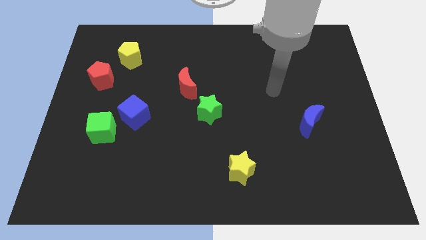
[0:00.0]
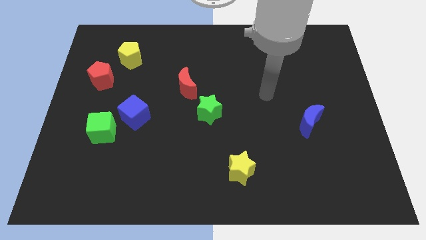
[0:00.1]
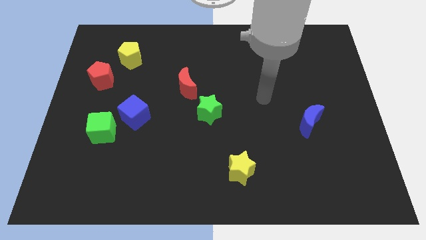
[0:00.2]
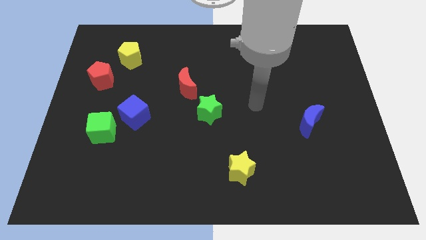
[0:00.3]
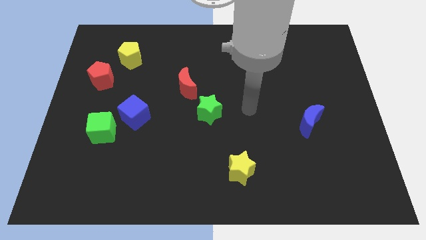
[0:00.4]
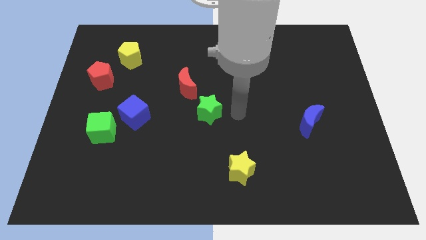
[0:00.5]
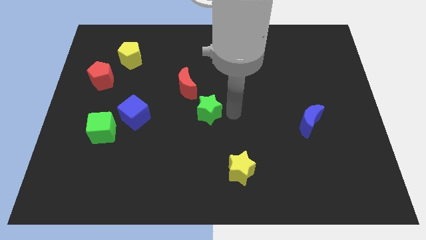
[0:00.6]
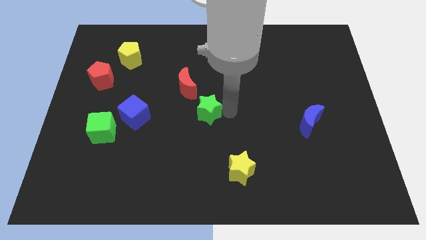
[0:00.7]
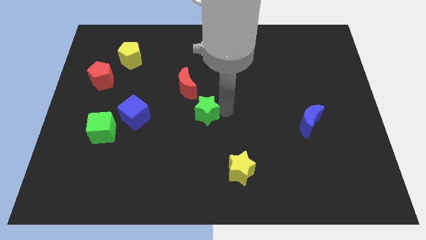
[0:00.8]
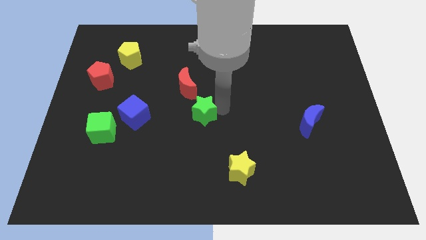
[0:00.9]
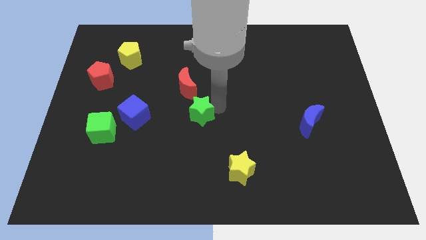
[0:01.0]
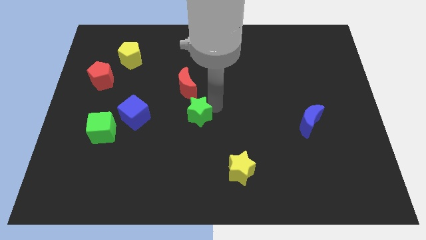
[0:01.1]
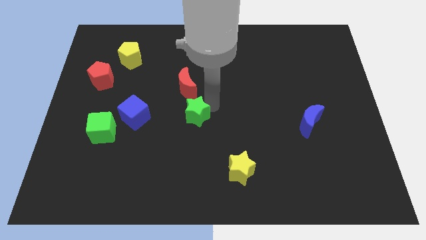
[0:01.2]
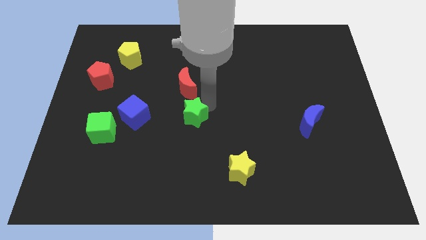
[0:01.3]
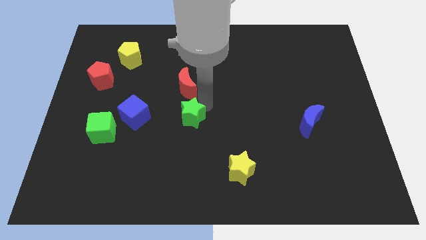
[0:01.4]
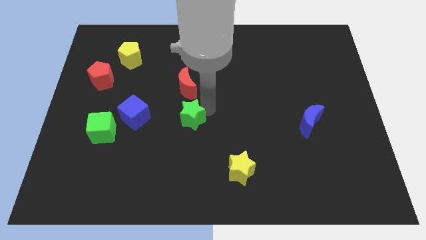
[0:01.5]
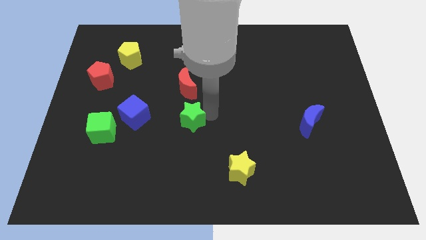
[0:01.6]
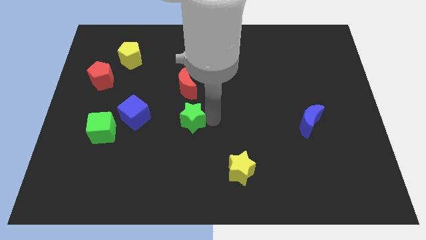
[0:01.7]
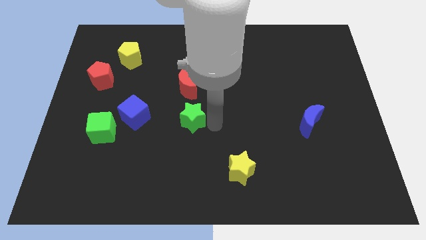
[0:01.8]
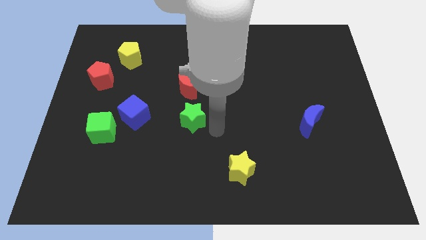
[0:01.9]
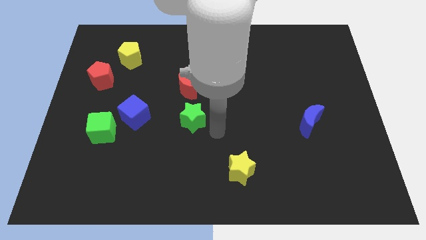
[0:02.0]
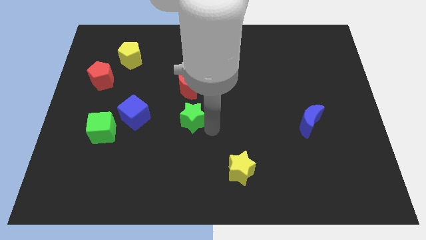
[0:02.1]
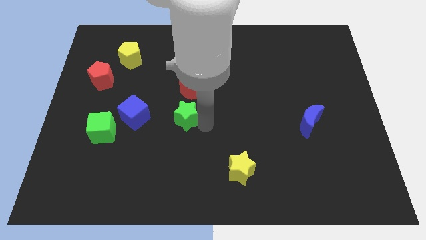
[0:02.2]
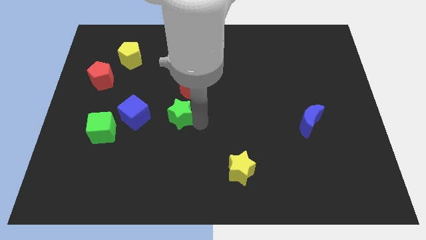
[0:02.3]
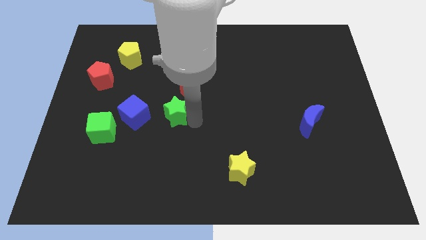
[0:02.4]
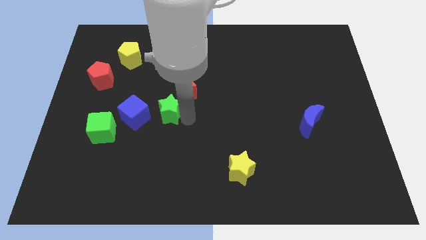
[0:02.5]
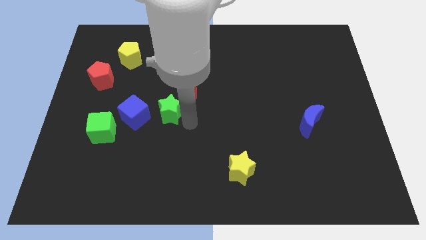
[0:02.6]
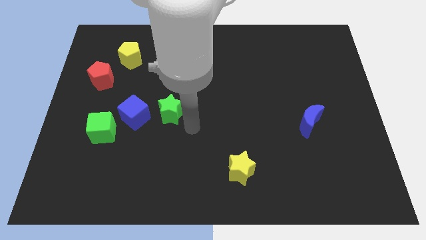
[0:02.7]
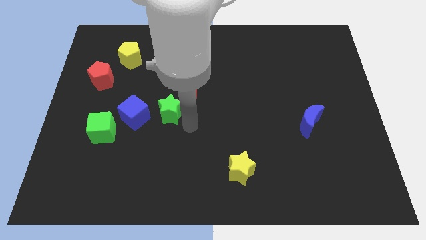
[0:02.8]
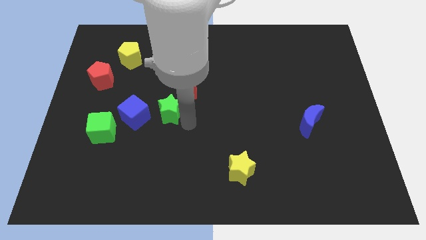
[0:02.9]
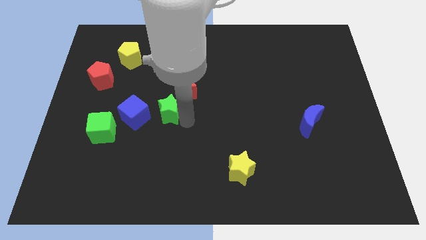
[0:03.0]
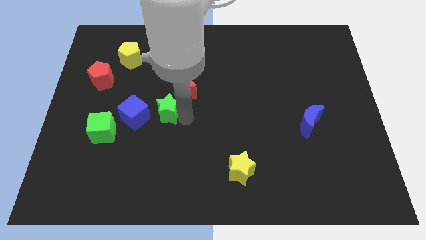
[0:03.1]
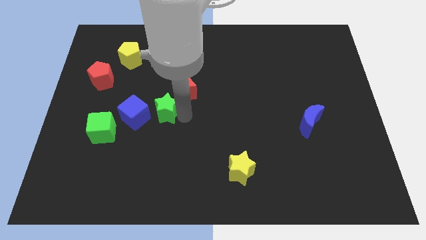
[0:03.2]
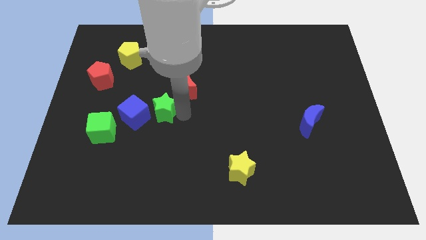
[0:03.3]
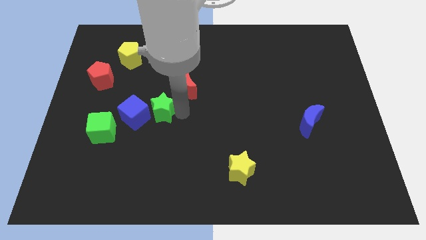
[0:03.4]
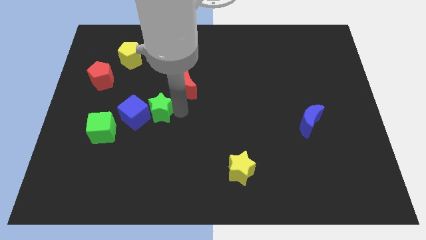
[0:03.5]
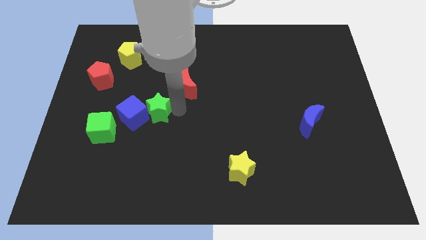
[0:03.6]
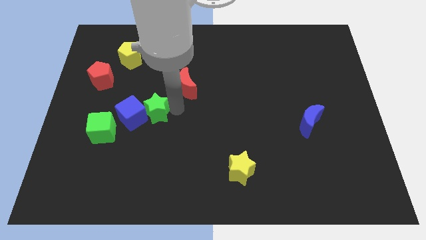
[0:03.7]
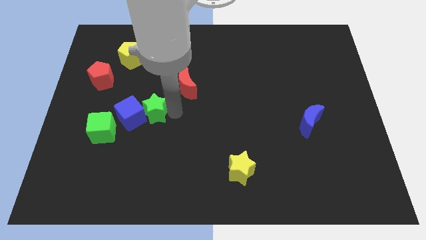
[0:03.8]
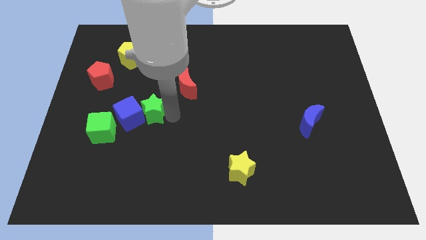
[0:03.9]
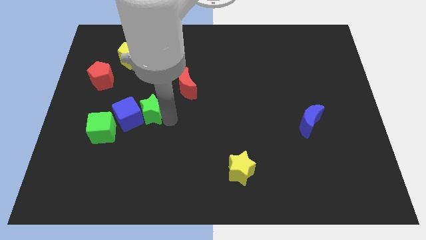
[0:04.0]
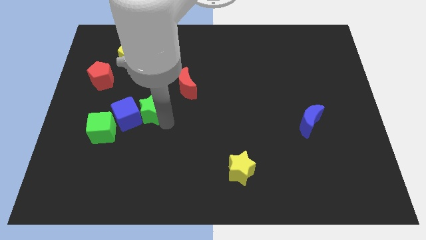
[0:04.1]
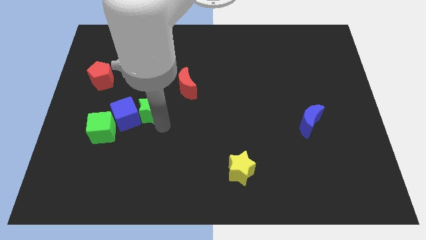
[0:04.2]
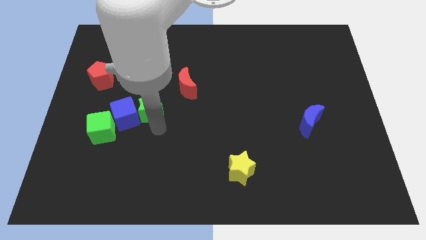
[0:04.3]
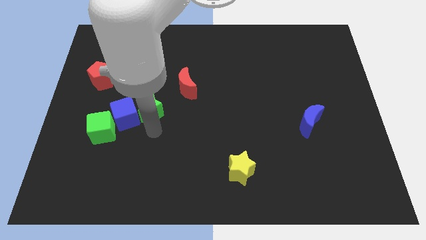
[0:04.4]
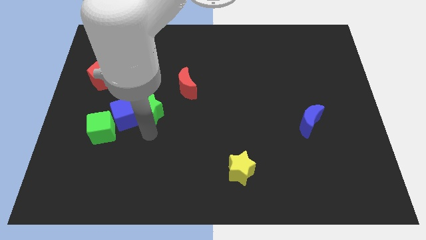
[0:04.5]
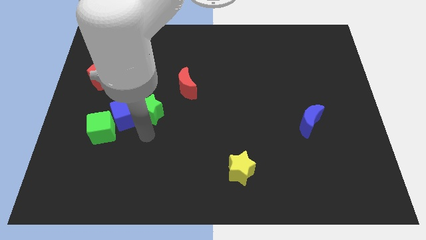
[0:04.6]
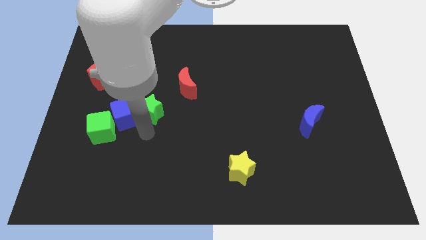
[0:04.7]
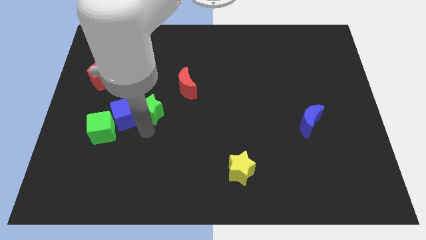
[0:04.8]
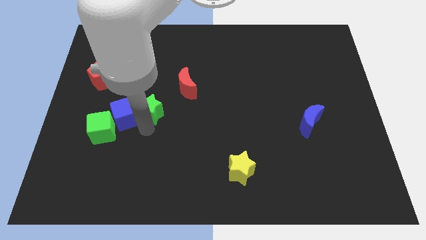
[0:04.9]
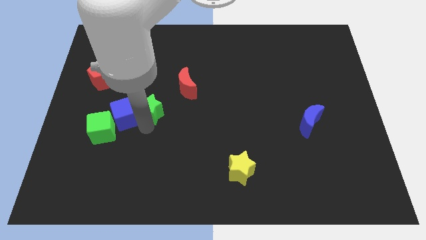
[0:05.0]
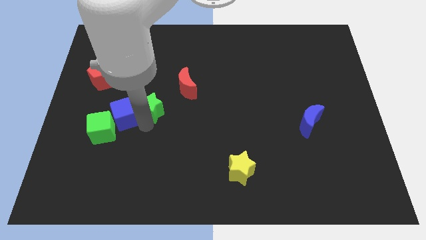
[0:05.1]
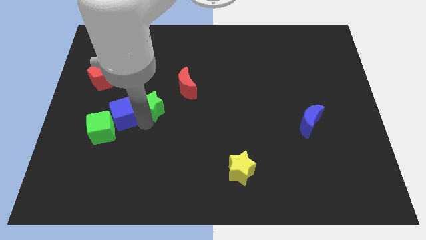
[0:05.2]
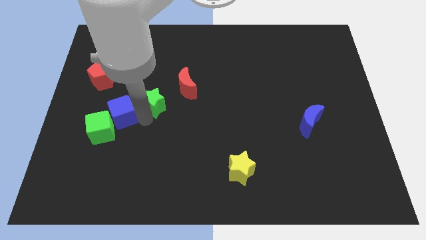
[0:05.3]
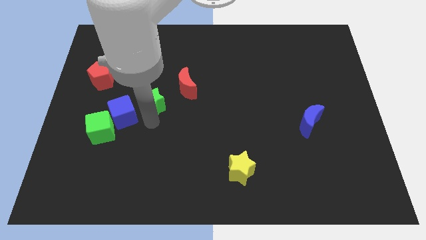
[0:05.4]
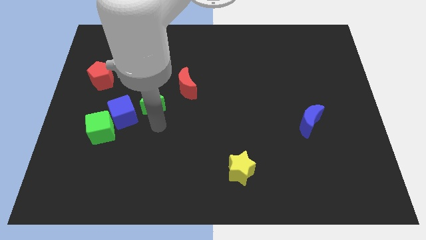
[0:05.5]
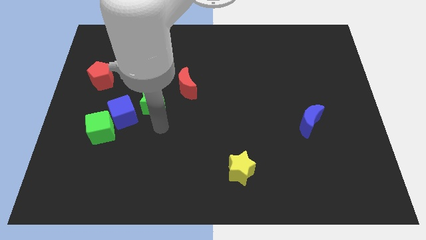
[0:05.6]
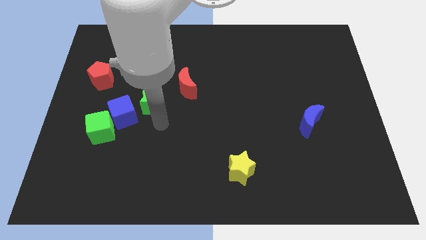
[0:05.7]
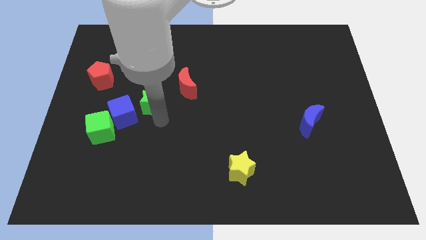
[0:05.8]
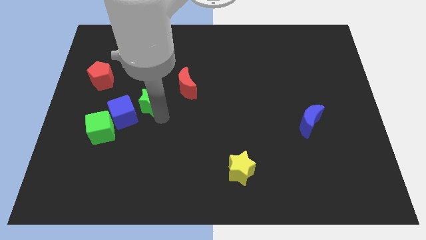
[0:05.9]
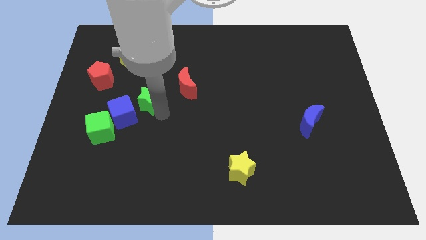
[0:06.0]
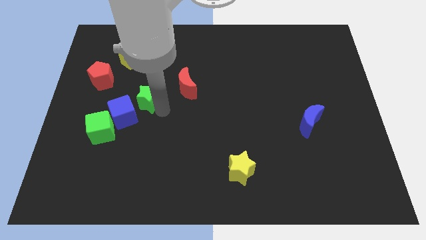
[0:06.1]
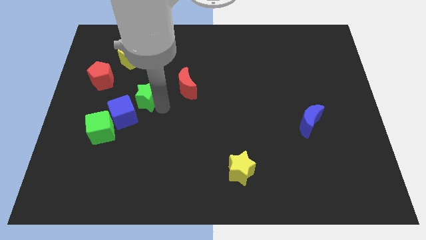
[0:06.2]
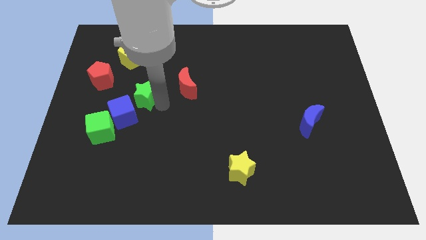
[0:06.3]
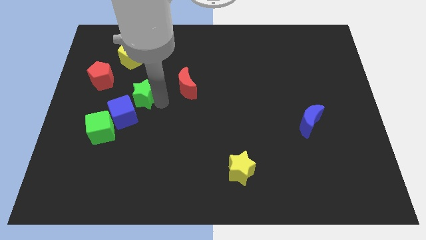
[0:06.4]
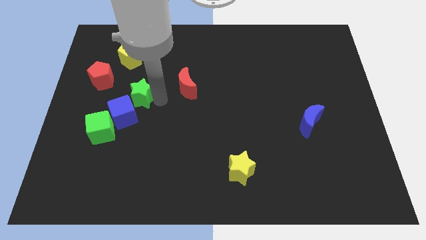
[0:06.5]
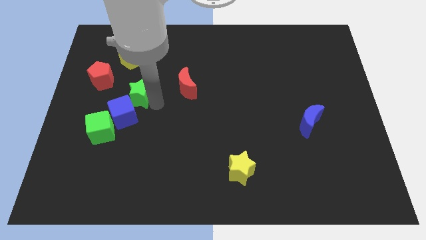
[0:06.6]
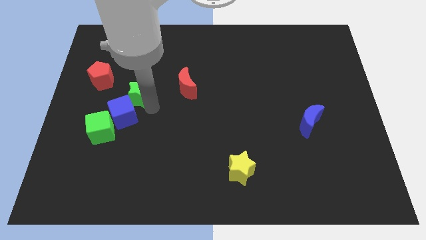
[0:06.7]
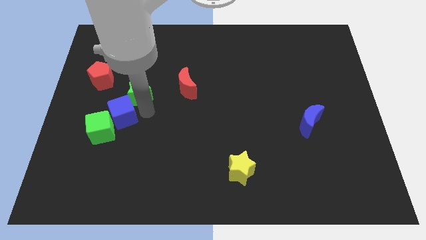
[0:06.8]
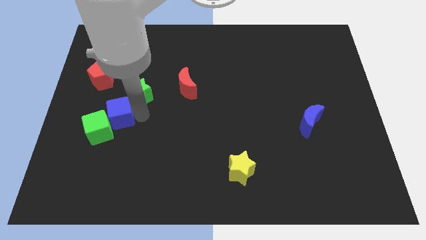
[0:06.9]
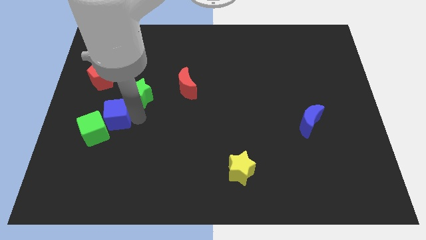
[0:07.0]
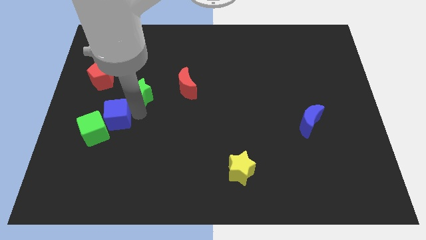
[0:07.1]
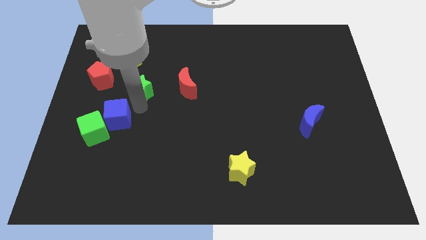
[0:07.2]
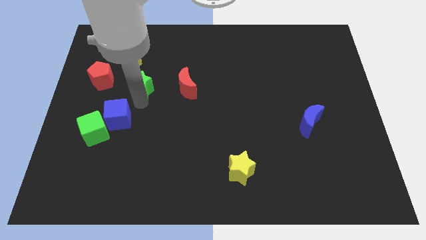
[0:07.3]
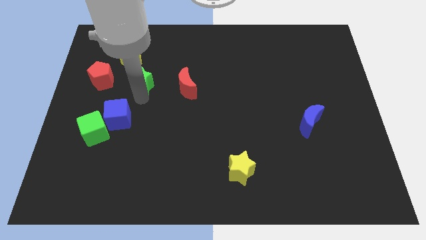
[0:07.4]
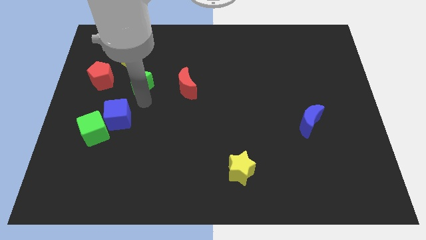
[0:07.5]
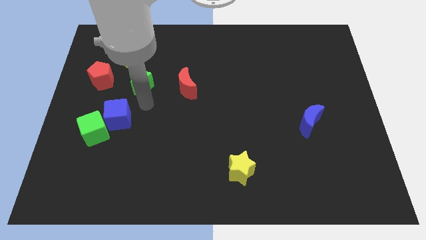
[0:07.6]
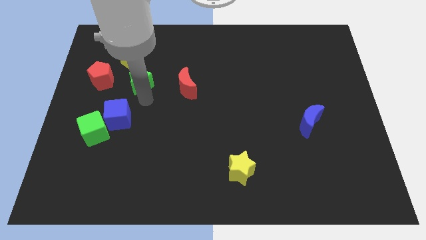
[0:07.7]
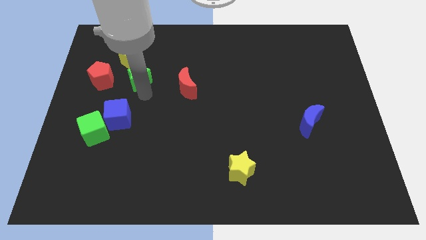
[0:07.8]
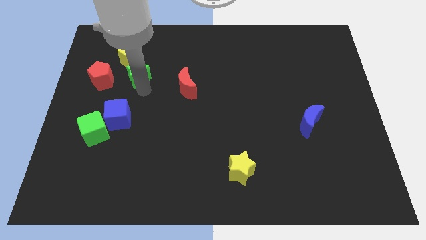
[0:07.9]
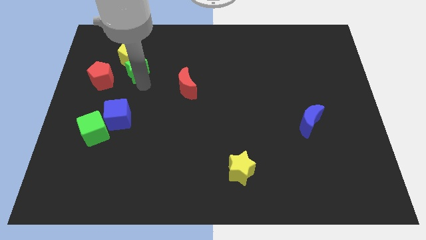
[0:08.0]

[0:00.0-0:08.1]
slide the green star towards the yellow pentagon
